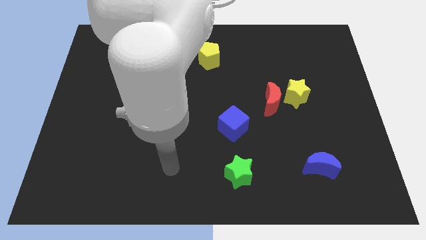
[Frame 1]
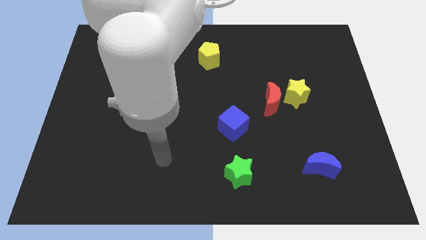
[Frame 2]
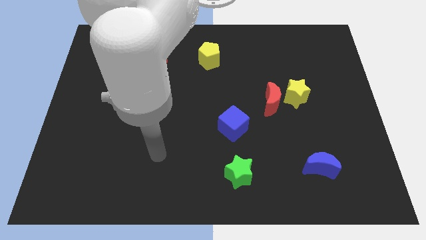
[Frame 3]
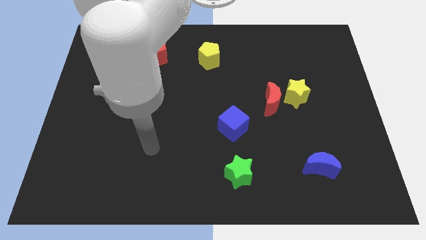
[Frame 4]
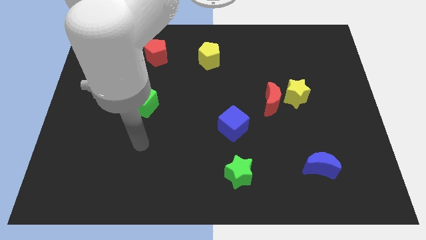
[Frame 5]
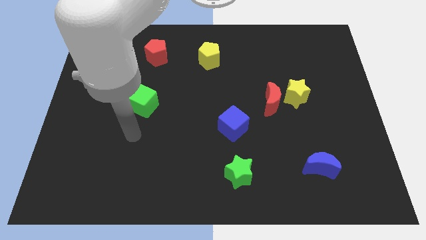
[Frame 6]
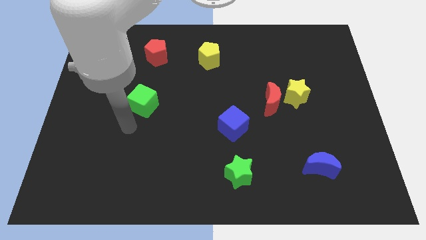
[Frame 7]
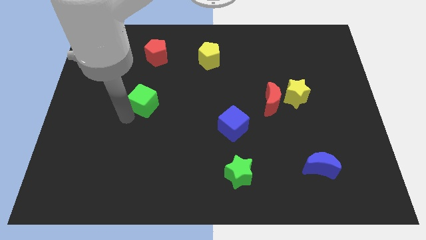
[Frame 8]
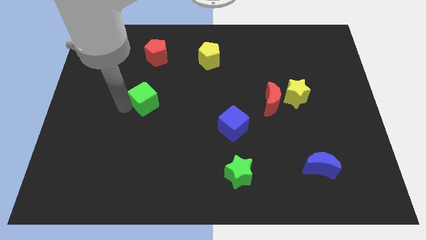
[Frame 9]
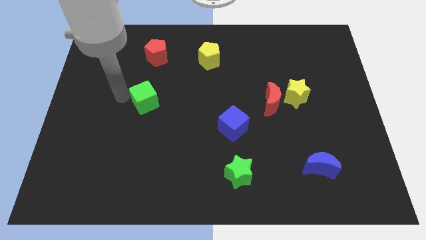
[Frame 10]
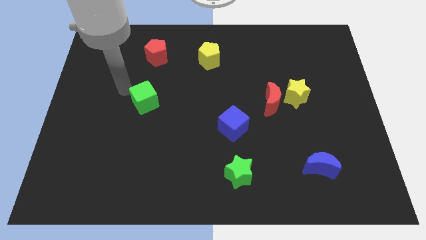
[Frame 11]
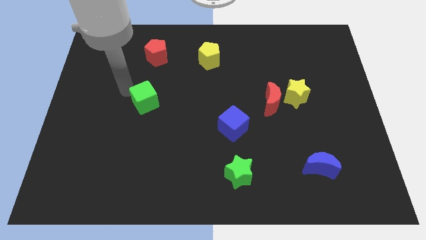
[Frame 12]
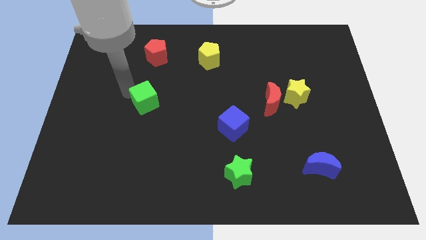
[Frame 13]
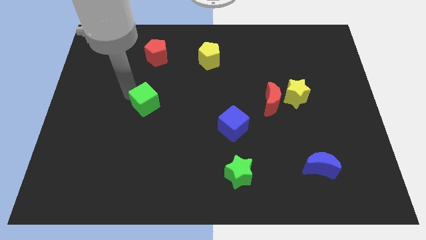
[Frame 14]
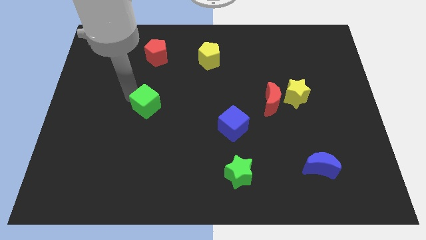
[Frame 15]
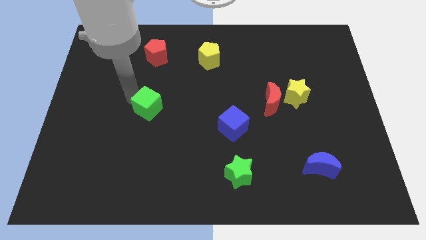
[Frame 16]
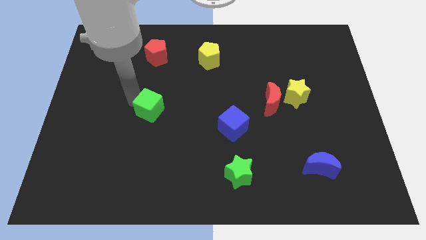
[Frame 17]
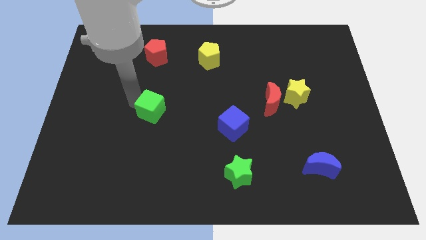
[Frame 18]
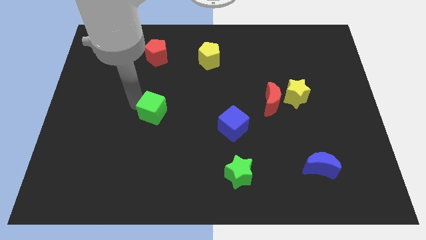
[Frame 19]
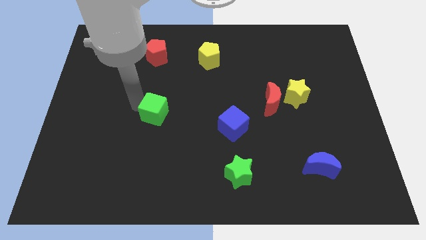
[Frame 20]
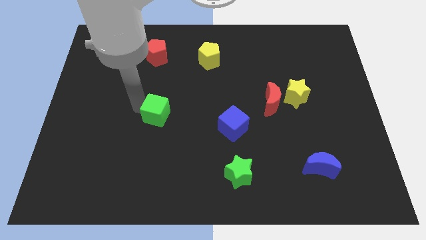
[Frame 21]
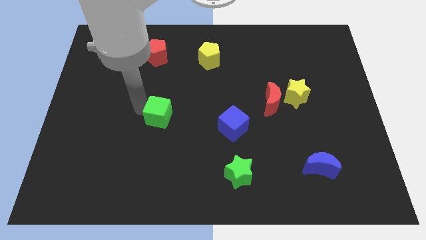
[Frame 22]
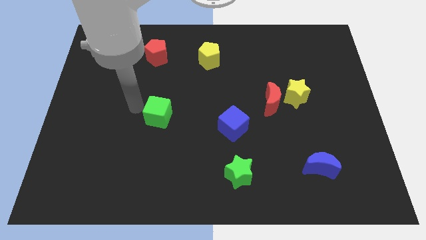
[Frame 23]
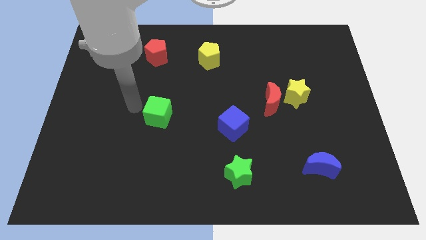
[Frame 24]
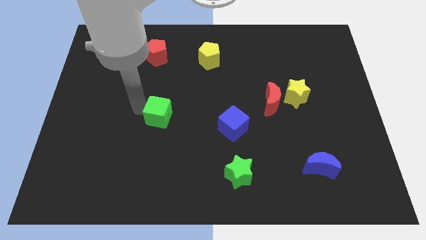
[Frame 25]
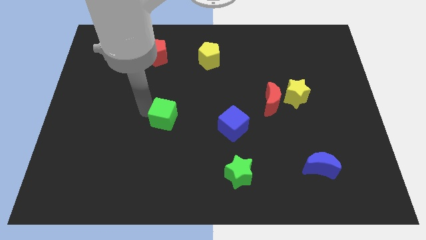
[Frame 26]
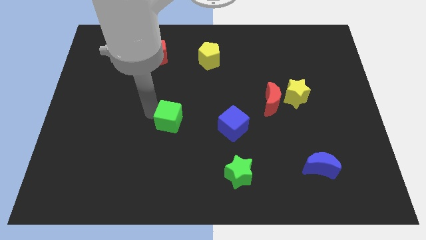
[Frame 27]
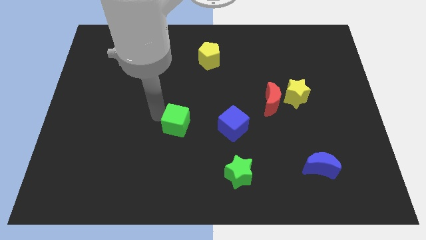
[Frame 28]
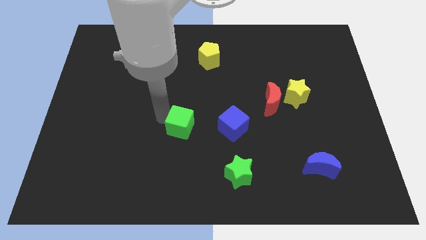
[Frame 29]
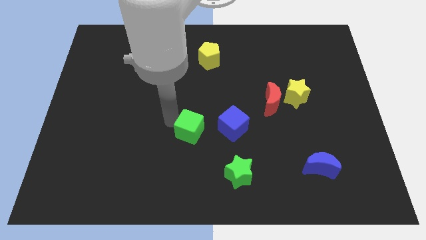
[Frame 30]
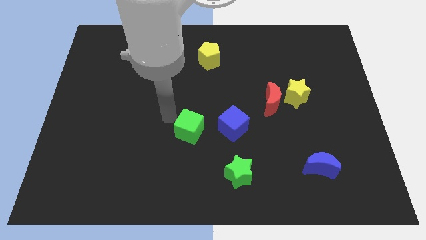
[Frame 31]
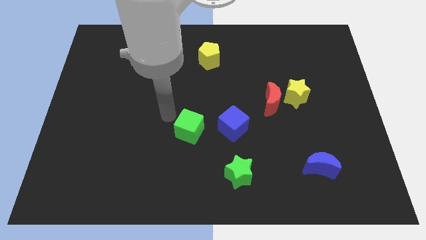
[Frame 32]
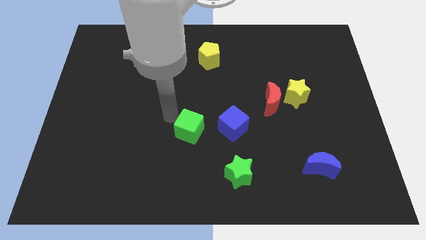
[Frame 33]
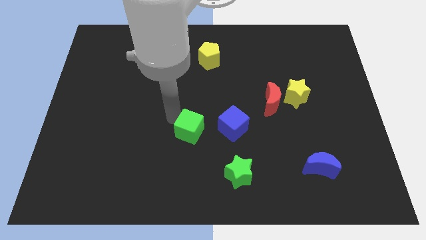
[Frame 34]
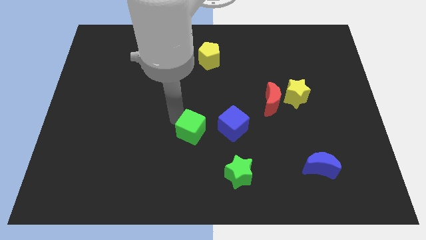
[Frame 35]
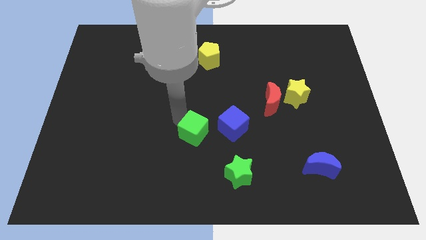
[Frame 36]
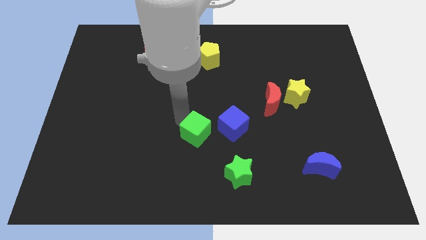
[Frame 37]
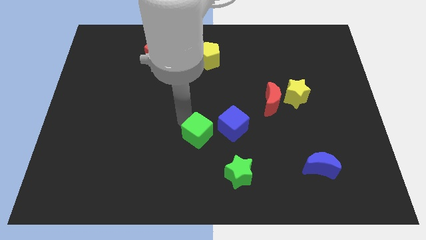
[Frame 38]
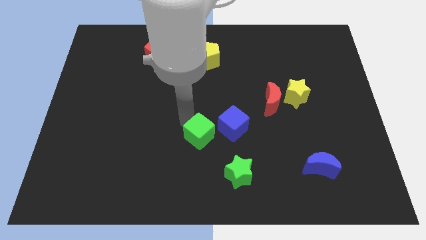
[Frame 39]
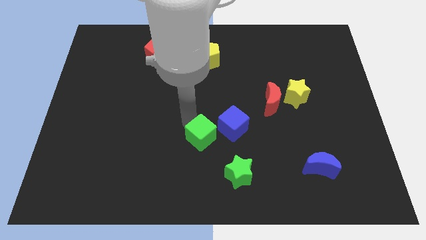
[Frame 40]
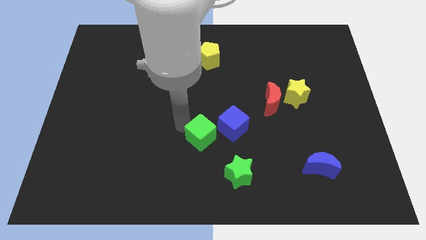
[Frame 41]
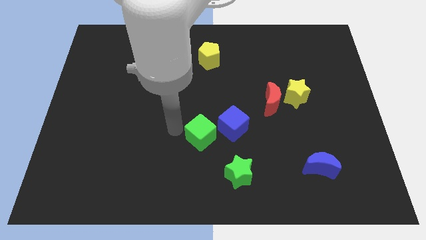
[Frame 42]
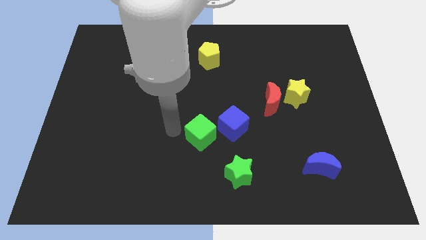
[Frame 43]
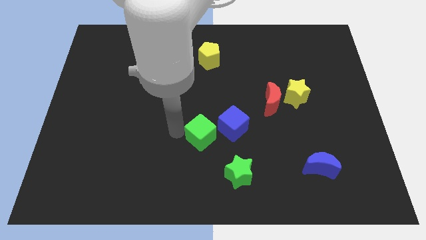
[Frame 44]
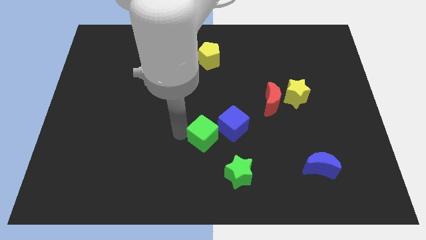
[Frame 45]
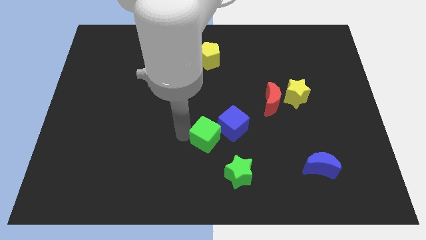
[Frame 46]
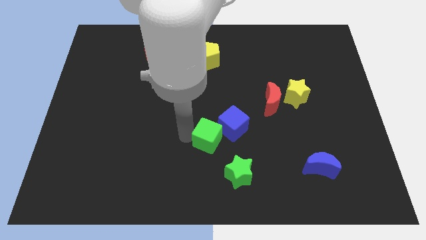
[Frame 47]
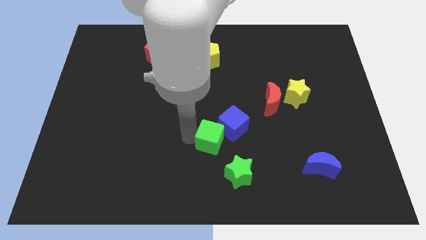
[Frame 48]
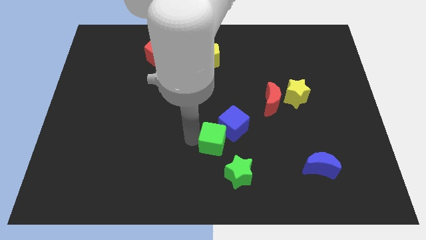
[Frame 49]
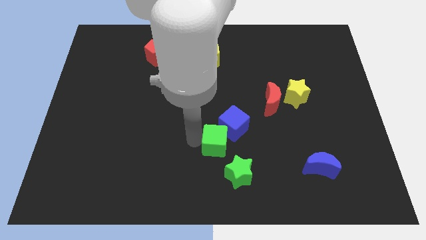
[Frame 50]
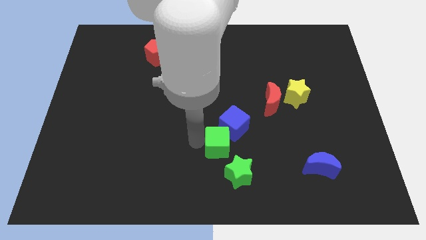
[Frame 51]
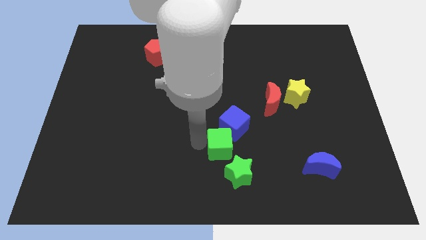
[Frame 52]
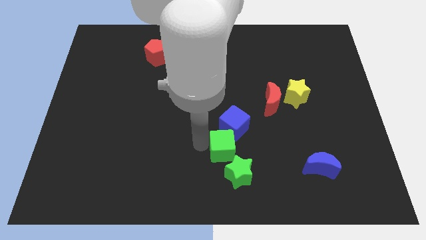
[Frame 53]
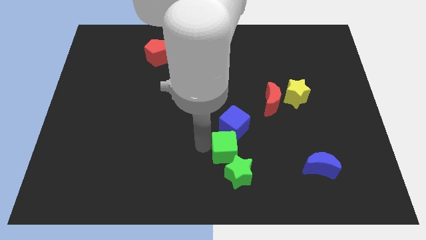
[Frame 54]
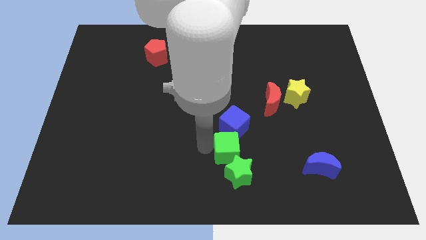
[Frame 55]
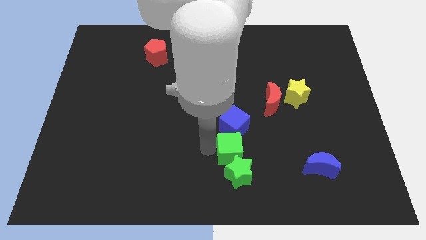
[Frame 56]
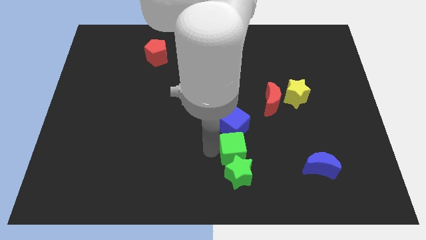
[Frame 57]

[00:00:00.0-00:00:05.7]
put the green cube to the bottom right of the blue cube

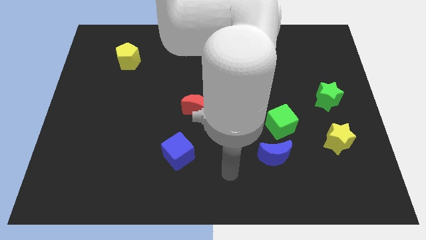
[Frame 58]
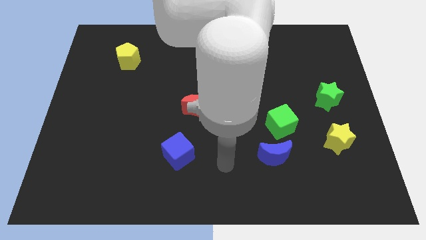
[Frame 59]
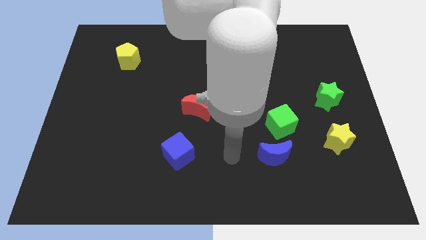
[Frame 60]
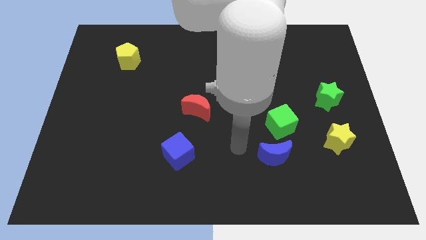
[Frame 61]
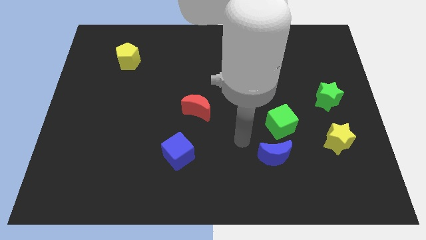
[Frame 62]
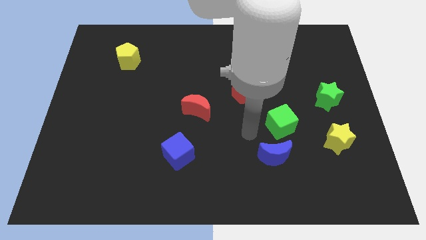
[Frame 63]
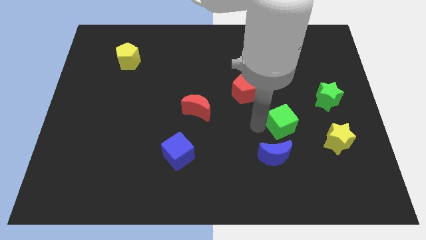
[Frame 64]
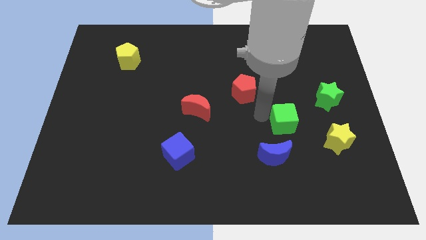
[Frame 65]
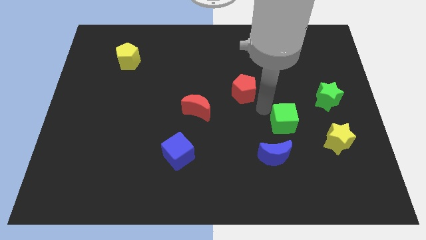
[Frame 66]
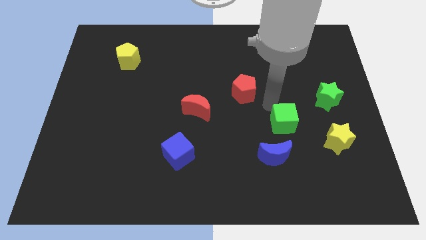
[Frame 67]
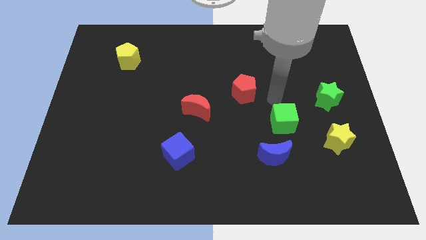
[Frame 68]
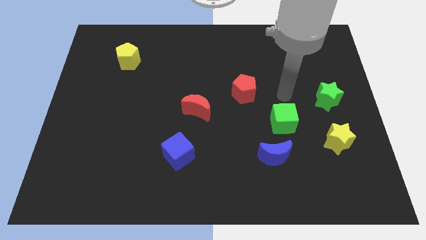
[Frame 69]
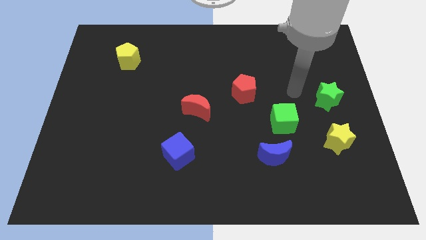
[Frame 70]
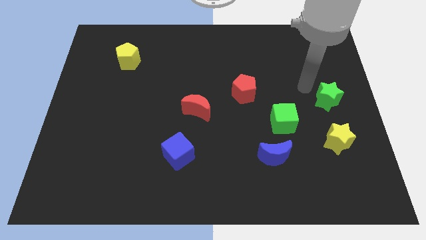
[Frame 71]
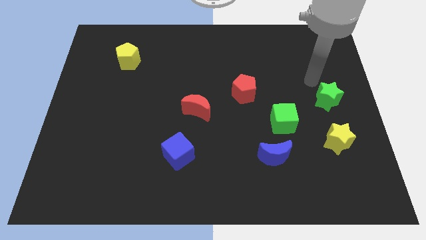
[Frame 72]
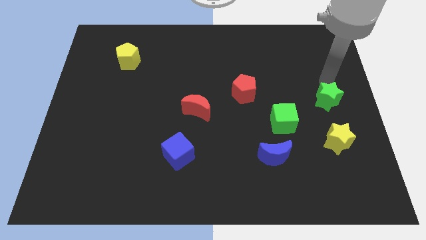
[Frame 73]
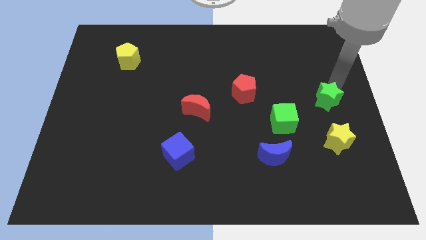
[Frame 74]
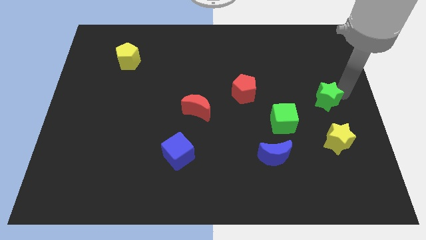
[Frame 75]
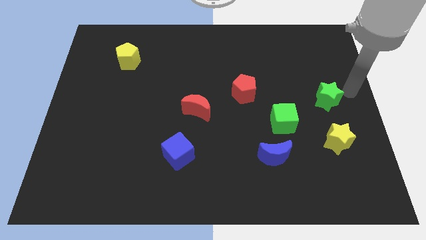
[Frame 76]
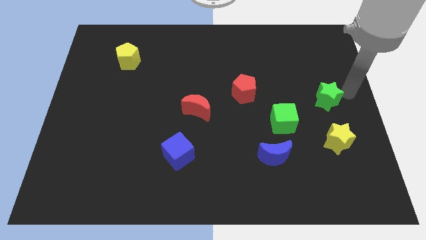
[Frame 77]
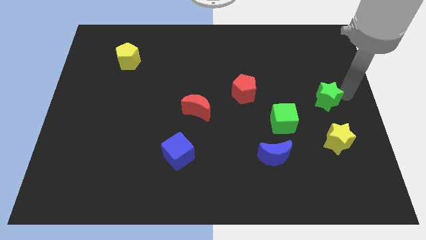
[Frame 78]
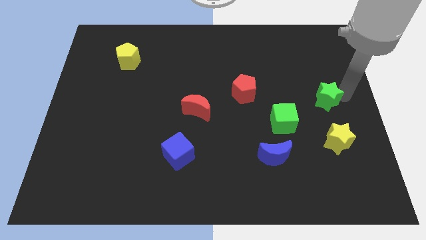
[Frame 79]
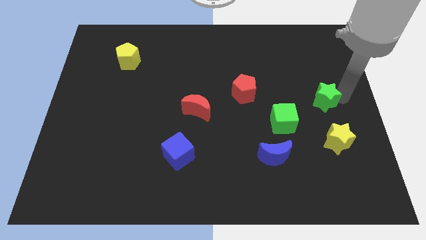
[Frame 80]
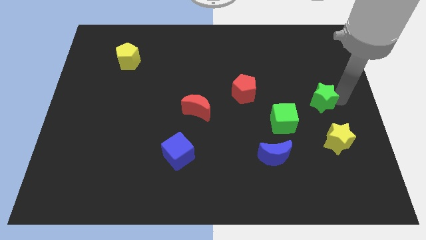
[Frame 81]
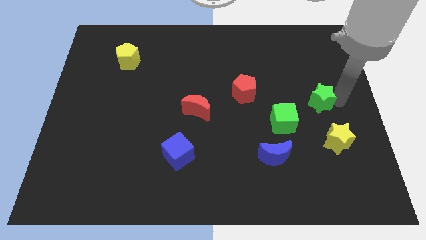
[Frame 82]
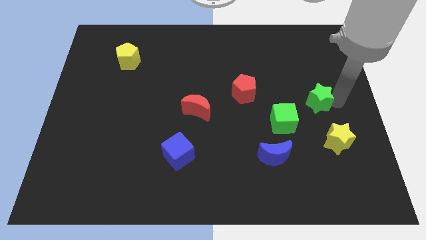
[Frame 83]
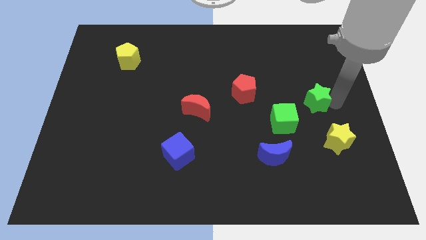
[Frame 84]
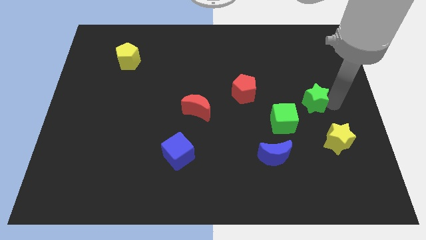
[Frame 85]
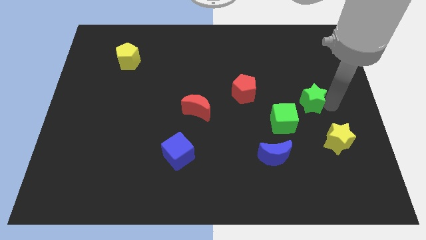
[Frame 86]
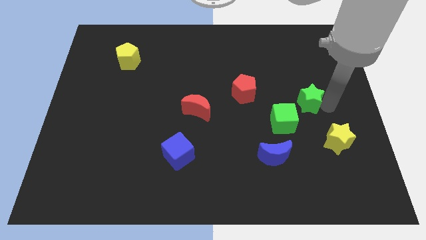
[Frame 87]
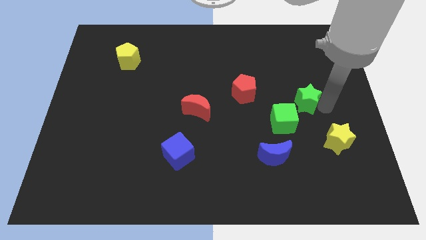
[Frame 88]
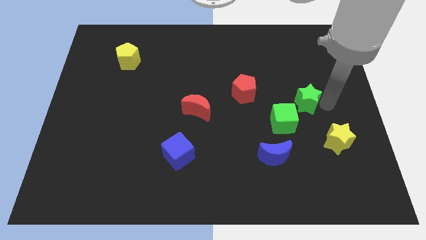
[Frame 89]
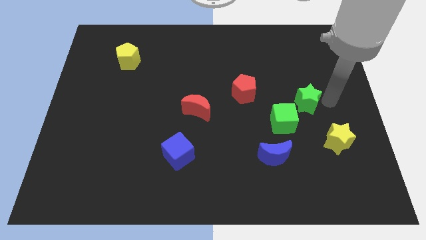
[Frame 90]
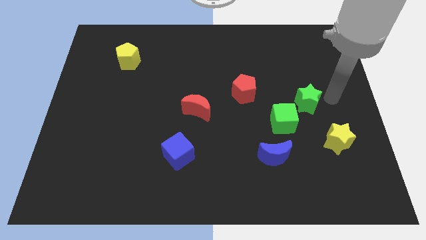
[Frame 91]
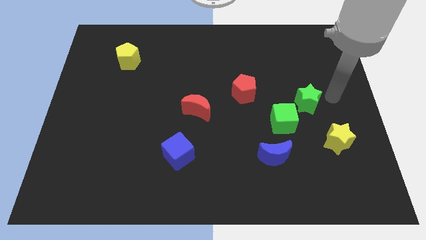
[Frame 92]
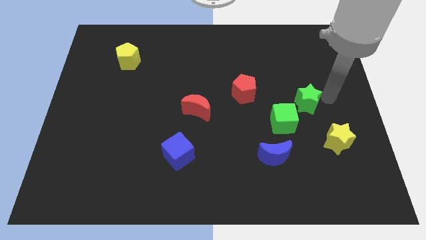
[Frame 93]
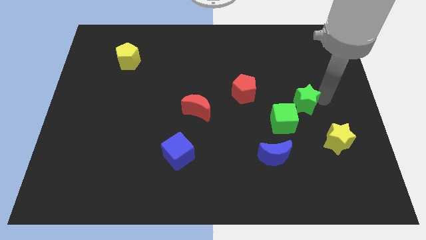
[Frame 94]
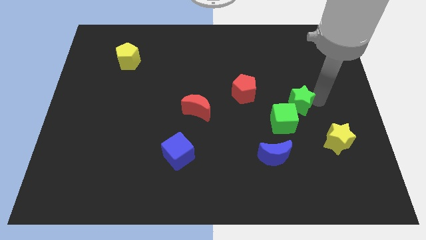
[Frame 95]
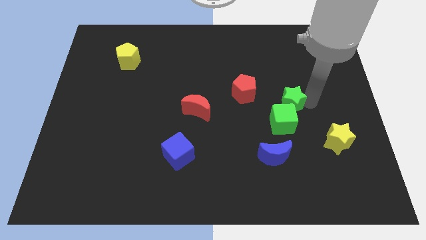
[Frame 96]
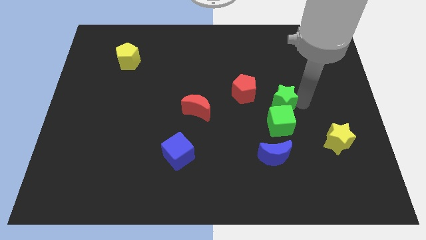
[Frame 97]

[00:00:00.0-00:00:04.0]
slide the green star to the bottom right side of the red pentagon
